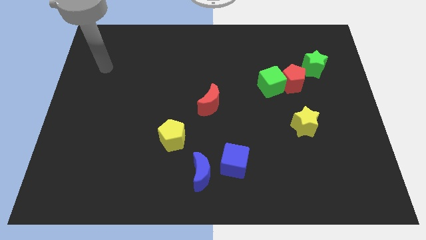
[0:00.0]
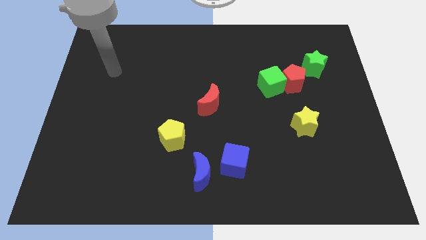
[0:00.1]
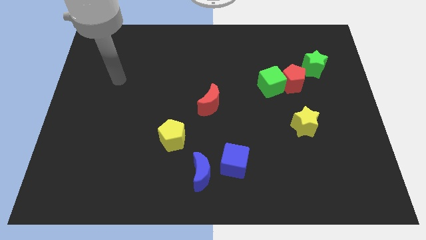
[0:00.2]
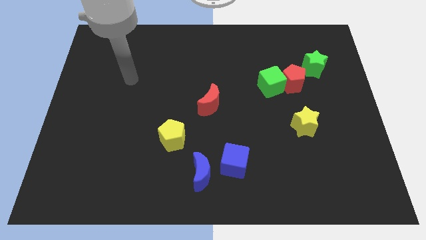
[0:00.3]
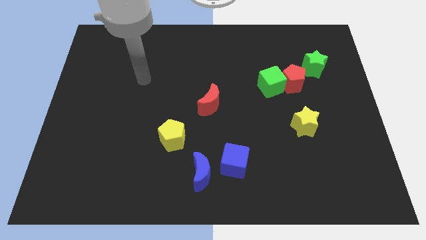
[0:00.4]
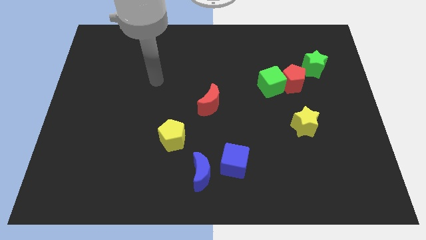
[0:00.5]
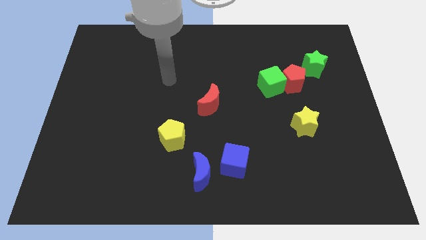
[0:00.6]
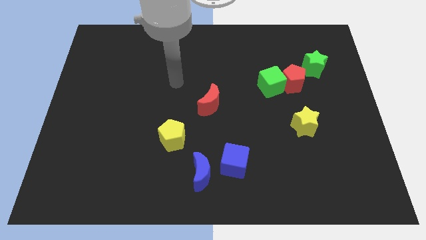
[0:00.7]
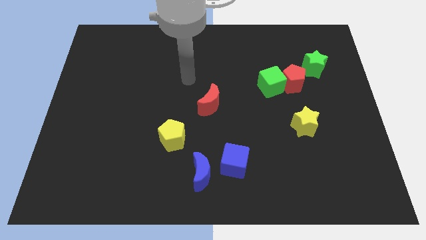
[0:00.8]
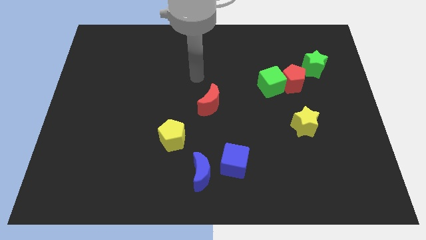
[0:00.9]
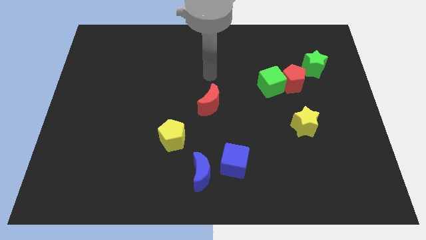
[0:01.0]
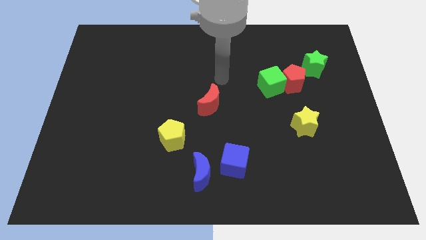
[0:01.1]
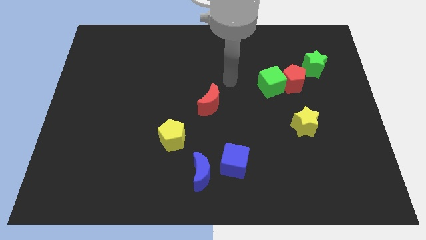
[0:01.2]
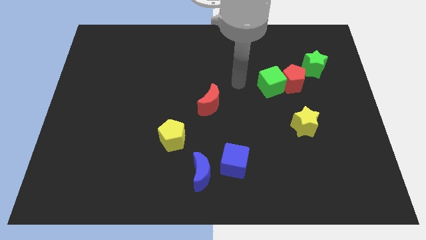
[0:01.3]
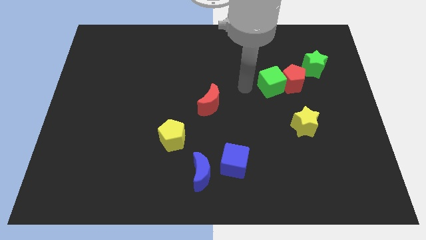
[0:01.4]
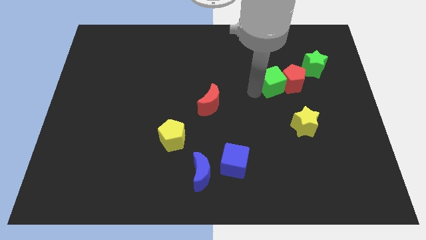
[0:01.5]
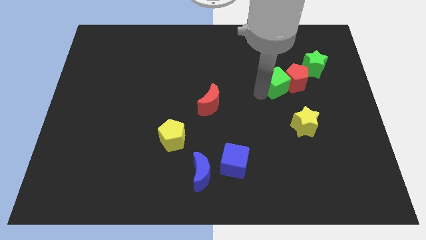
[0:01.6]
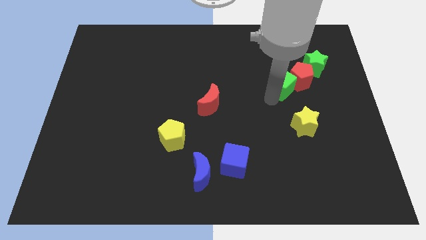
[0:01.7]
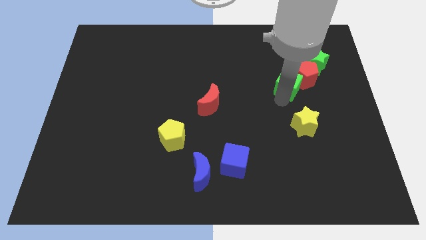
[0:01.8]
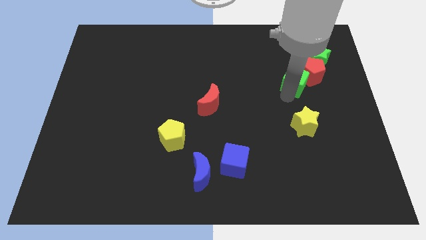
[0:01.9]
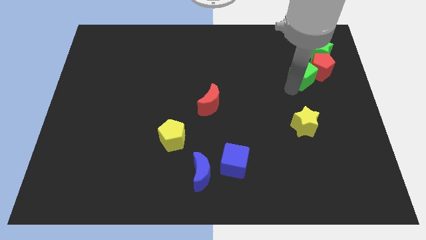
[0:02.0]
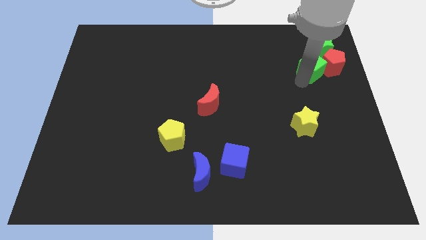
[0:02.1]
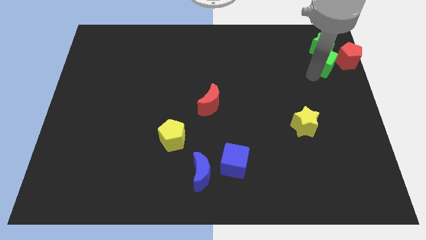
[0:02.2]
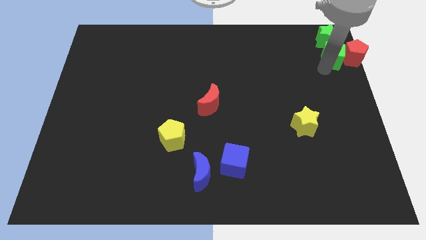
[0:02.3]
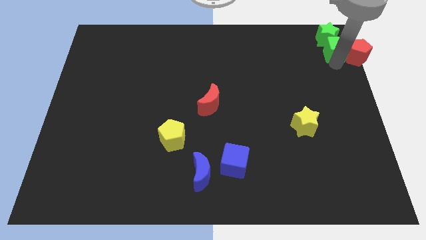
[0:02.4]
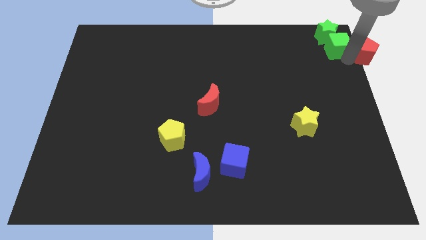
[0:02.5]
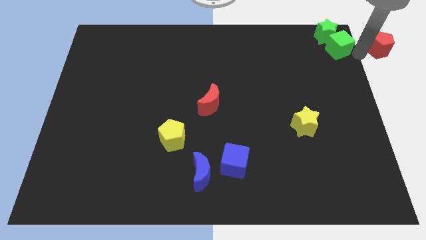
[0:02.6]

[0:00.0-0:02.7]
separate the green cube from the red pentagon

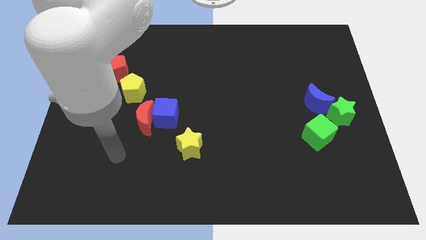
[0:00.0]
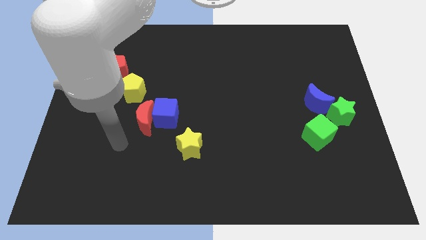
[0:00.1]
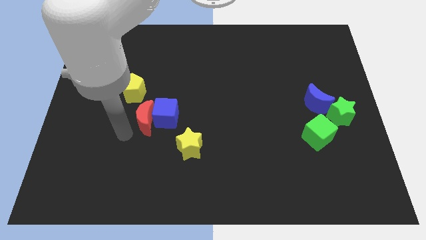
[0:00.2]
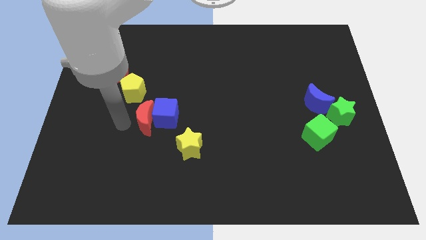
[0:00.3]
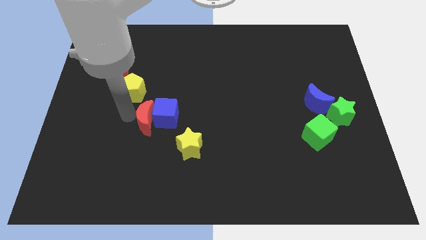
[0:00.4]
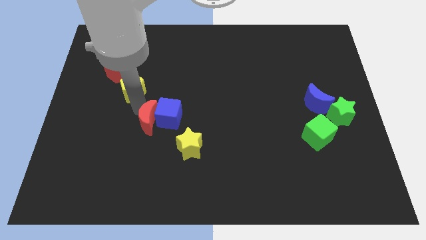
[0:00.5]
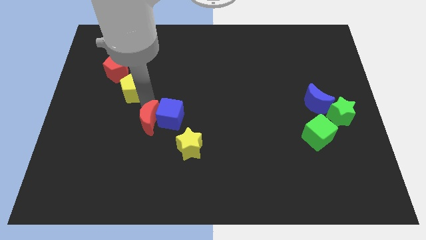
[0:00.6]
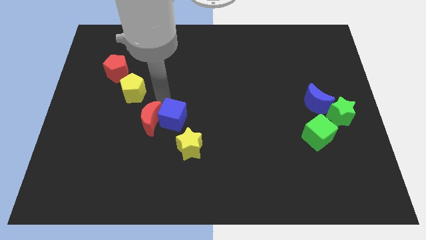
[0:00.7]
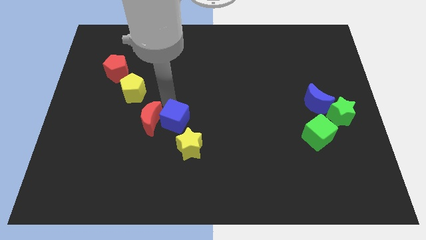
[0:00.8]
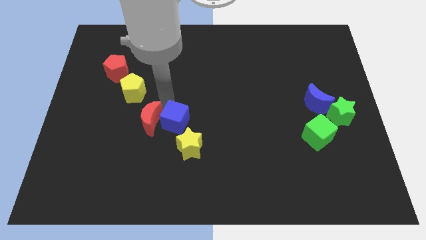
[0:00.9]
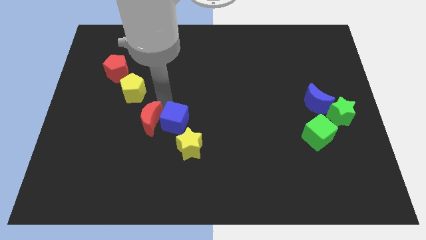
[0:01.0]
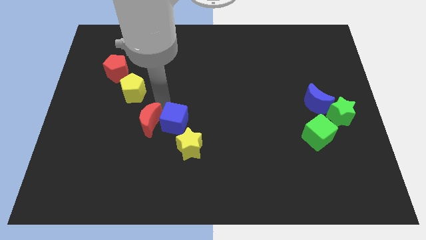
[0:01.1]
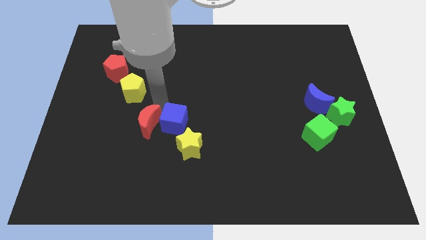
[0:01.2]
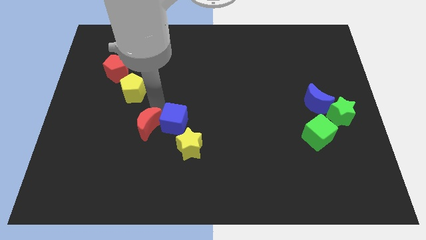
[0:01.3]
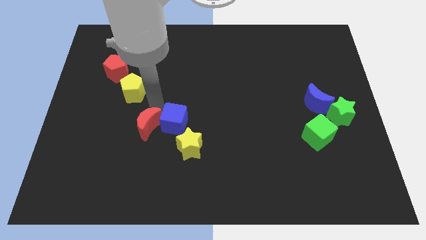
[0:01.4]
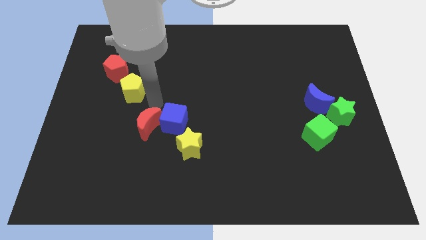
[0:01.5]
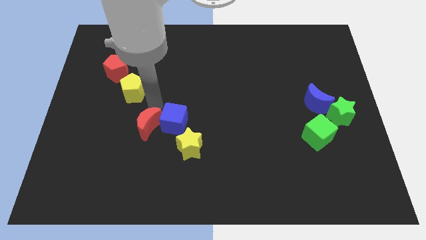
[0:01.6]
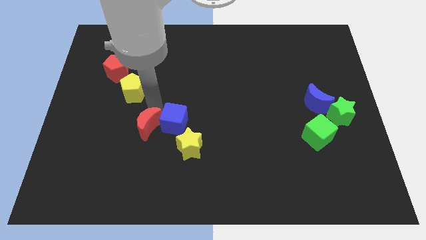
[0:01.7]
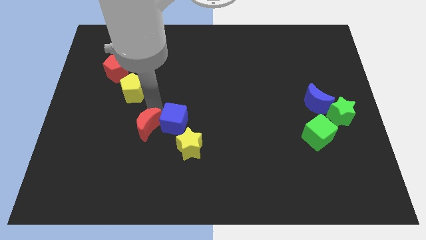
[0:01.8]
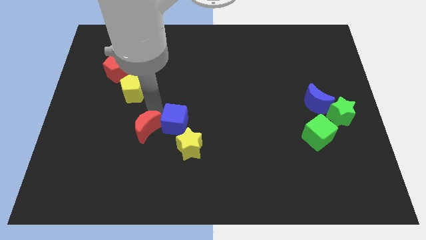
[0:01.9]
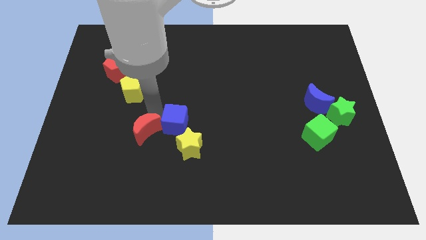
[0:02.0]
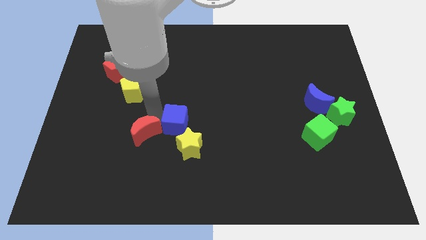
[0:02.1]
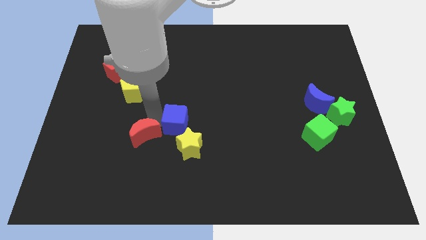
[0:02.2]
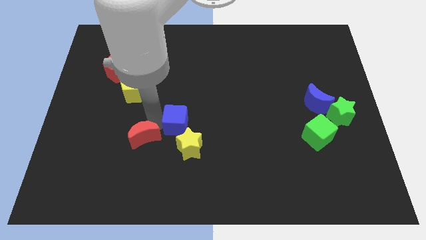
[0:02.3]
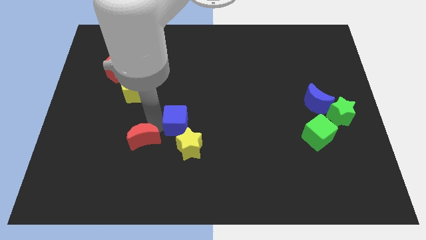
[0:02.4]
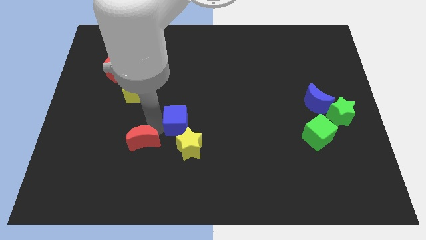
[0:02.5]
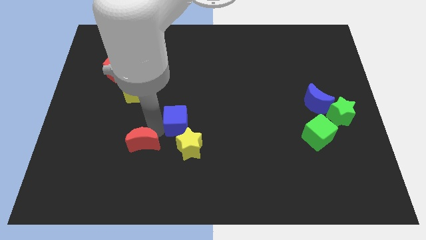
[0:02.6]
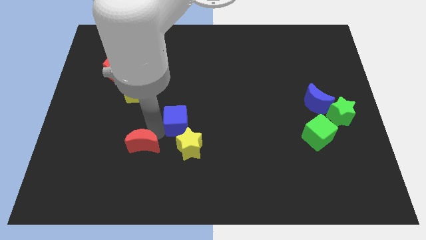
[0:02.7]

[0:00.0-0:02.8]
separate the red moon from the blue cube and yellow pentagon

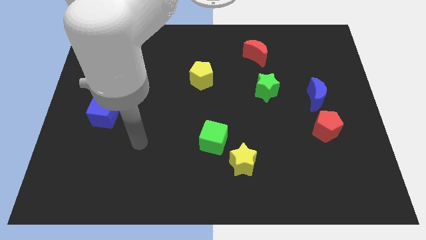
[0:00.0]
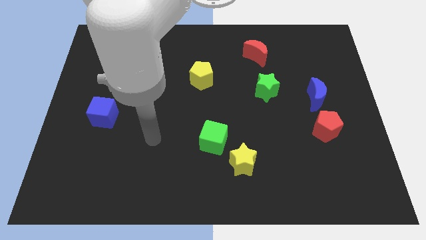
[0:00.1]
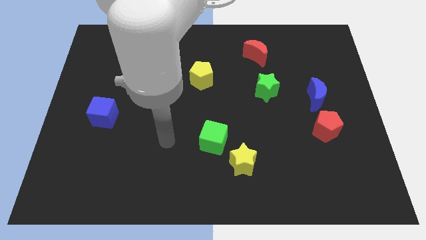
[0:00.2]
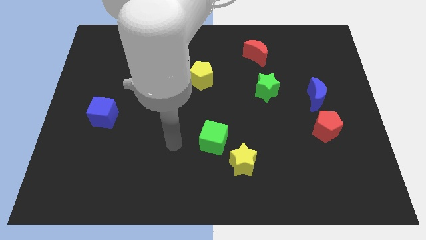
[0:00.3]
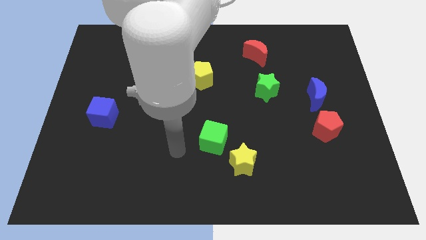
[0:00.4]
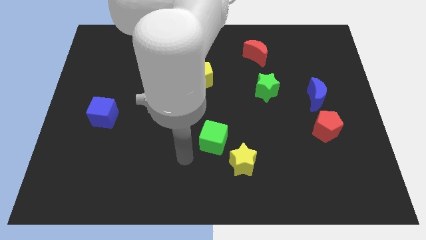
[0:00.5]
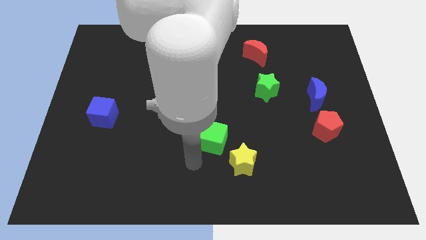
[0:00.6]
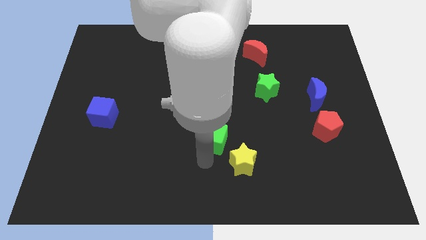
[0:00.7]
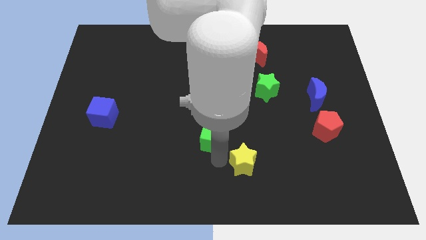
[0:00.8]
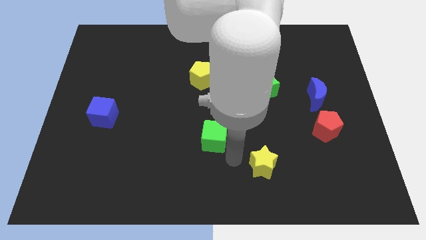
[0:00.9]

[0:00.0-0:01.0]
move the green cube away from the yellow star

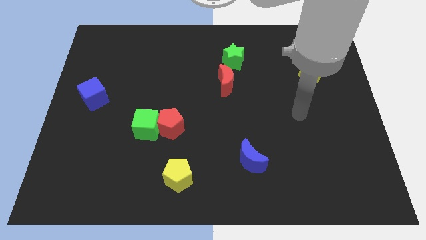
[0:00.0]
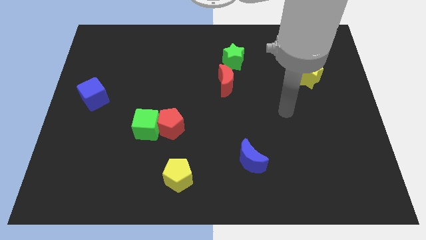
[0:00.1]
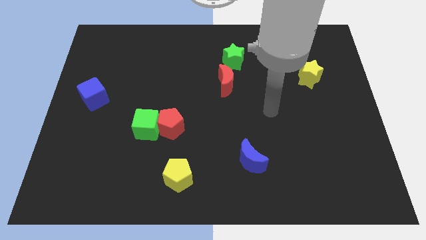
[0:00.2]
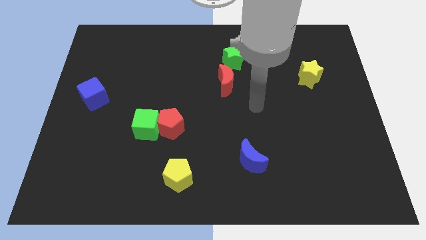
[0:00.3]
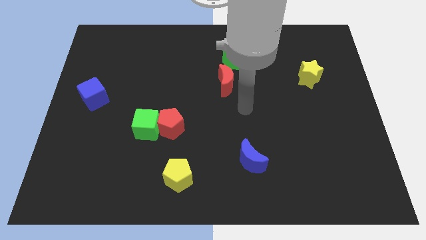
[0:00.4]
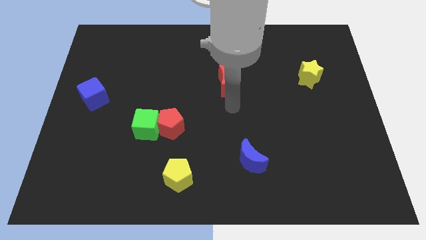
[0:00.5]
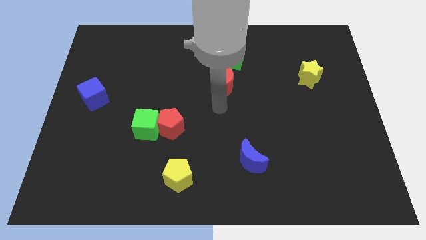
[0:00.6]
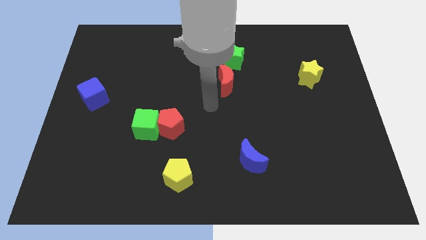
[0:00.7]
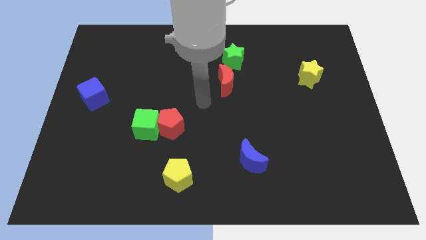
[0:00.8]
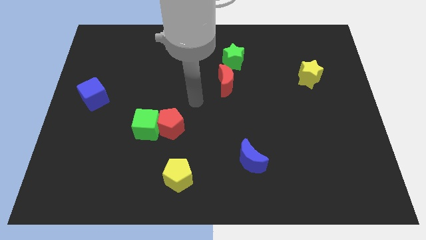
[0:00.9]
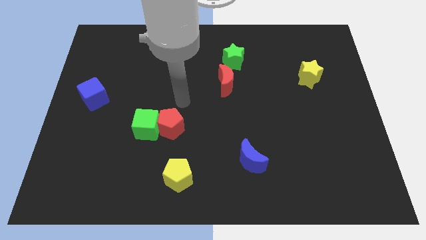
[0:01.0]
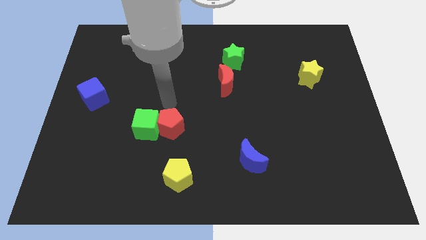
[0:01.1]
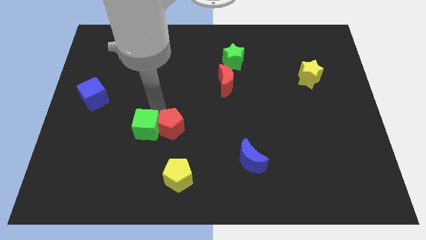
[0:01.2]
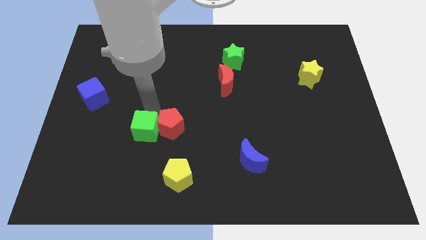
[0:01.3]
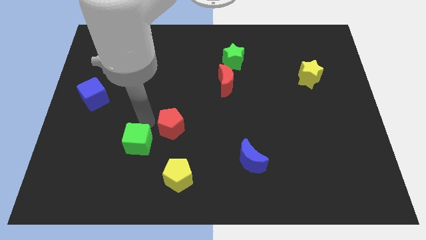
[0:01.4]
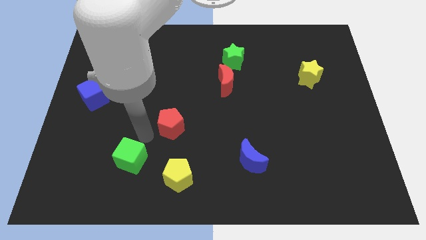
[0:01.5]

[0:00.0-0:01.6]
separate the red pentagon from the green cube

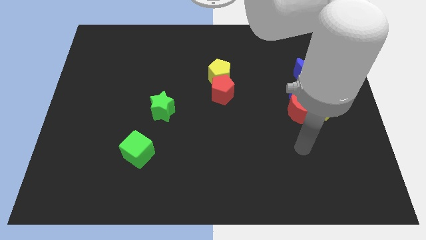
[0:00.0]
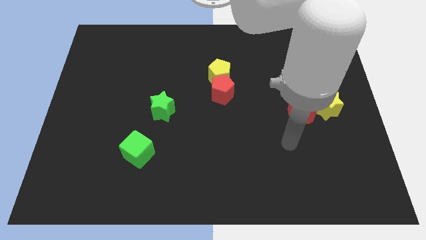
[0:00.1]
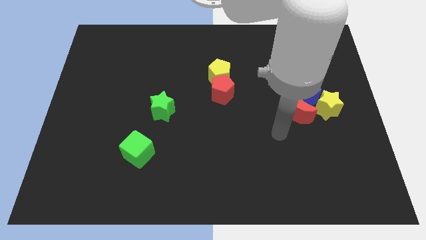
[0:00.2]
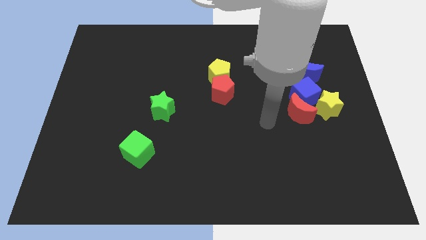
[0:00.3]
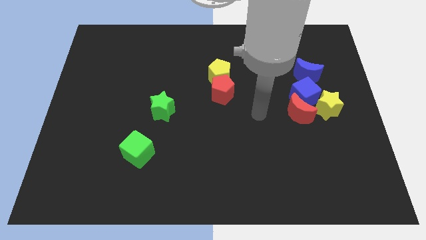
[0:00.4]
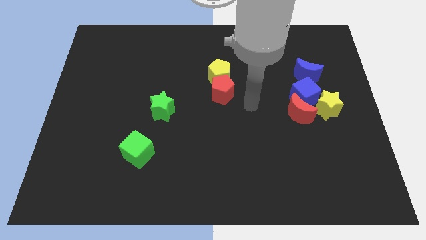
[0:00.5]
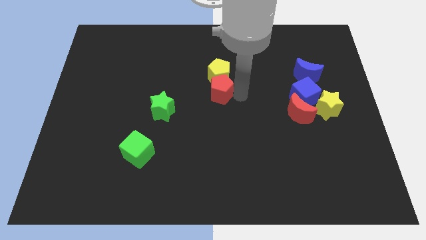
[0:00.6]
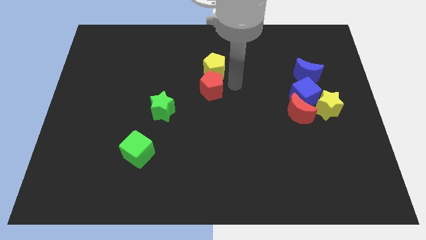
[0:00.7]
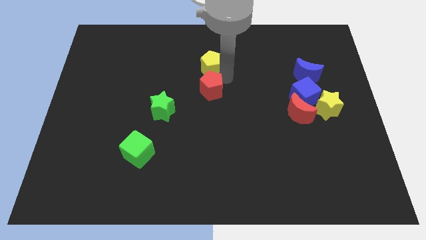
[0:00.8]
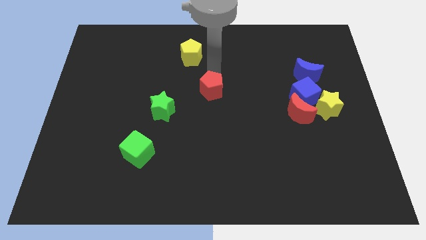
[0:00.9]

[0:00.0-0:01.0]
separate the red pentagon from the yellow pentagon

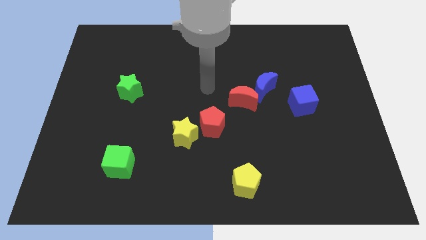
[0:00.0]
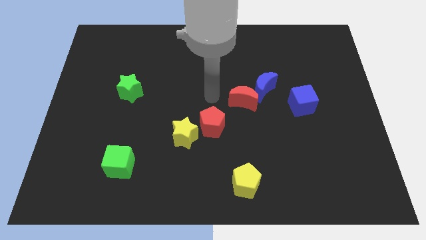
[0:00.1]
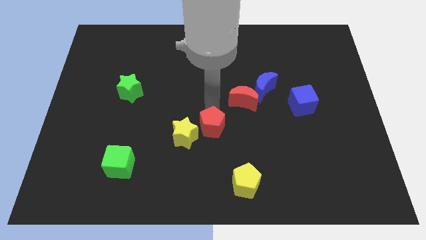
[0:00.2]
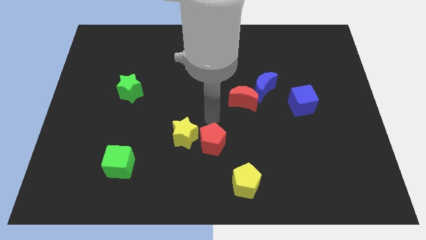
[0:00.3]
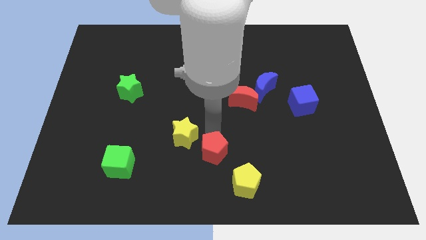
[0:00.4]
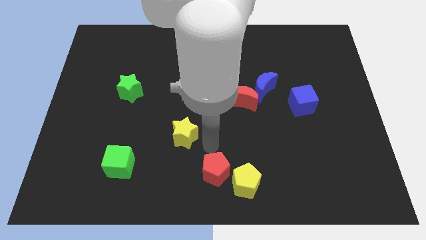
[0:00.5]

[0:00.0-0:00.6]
move the yellow star away from the red pentagon
